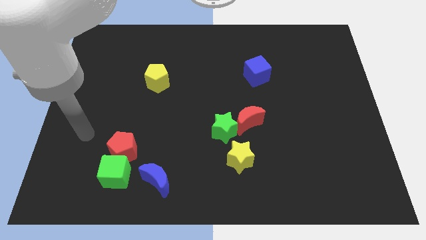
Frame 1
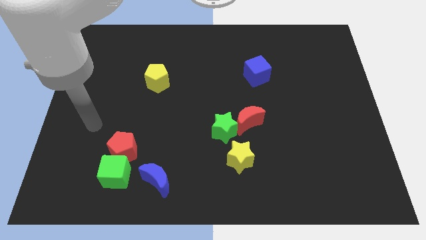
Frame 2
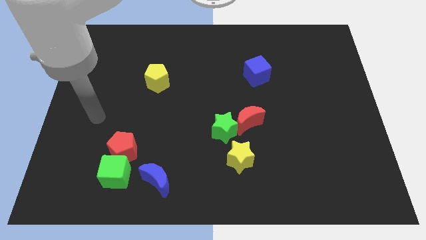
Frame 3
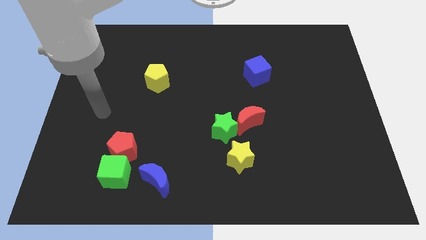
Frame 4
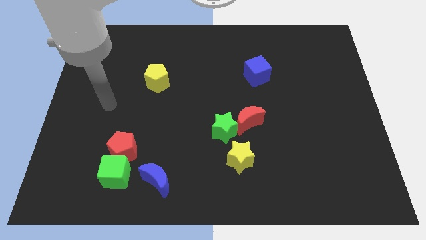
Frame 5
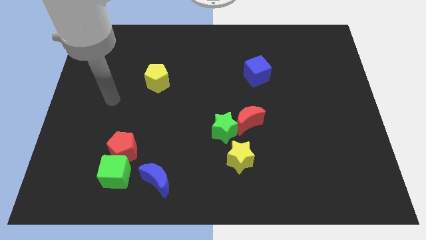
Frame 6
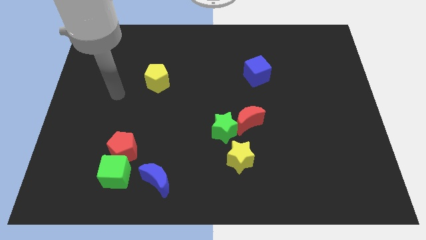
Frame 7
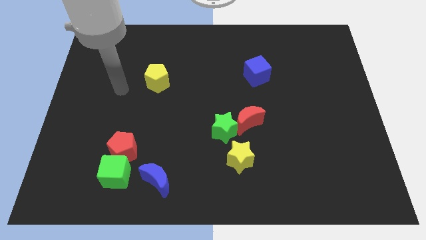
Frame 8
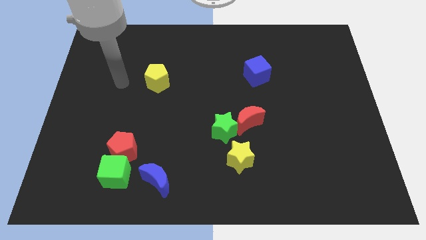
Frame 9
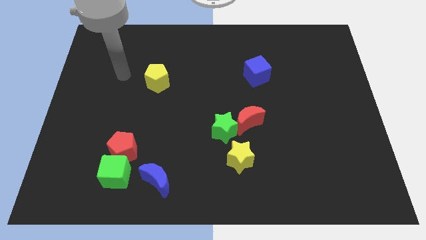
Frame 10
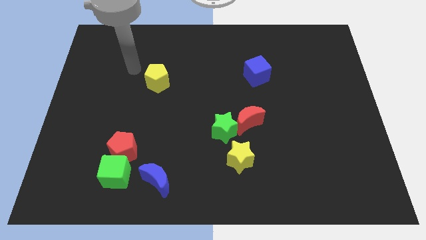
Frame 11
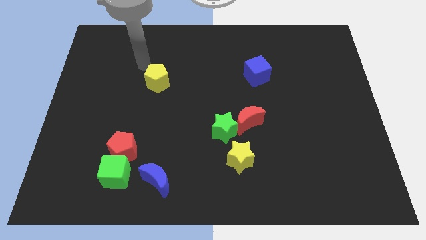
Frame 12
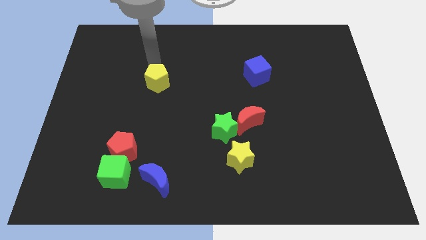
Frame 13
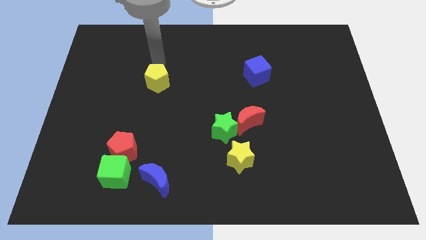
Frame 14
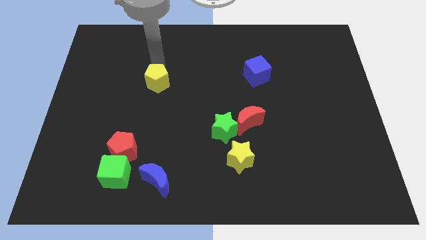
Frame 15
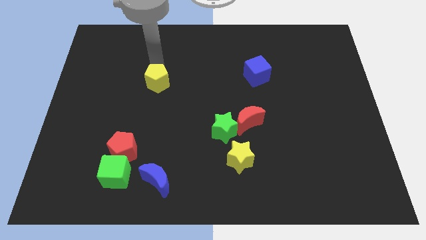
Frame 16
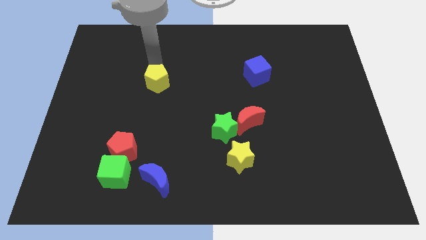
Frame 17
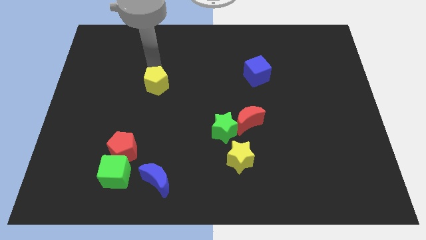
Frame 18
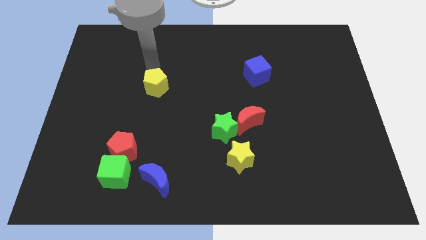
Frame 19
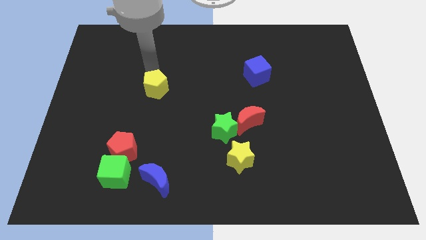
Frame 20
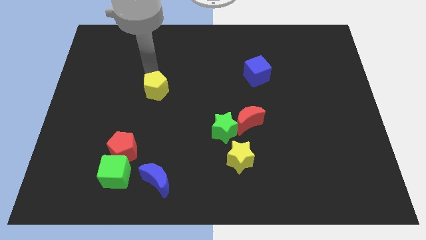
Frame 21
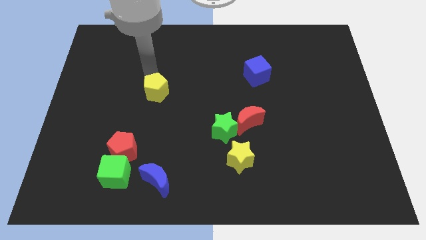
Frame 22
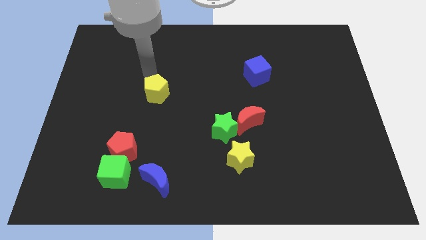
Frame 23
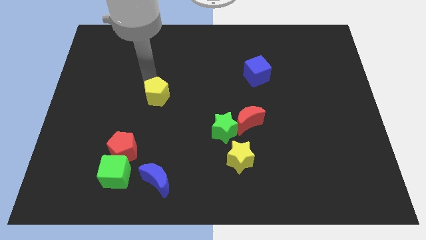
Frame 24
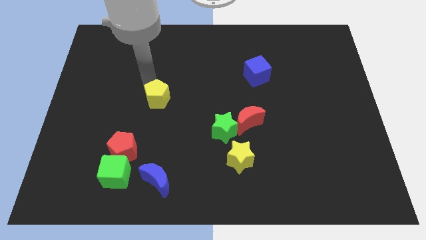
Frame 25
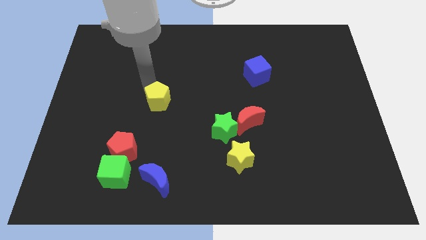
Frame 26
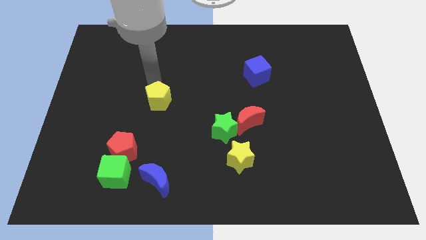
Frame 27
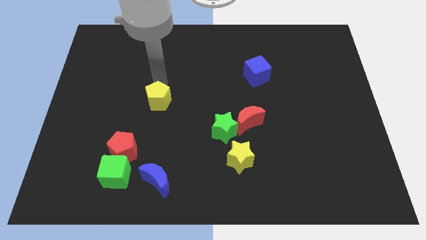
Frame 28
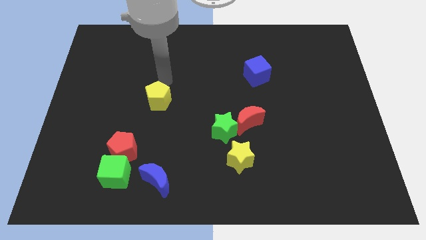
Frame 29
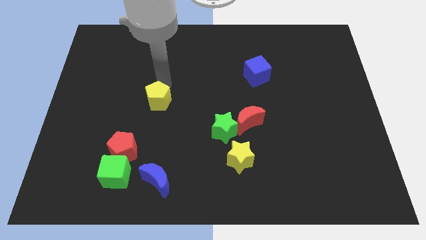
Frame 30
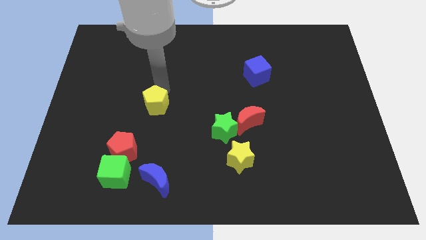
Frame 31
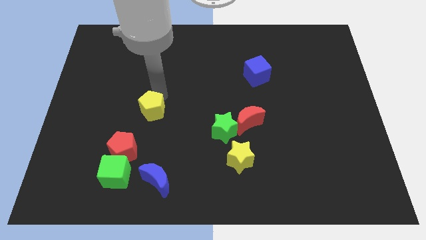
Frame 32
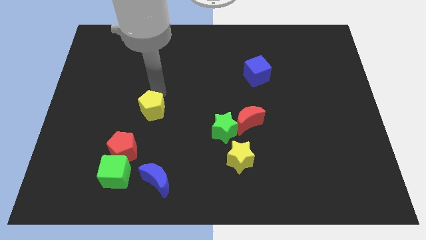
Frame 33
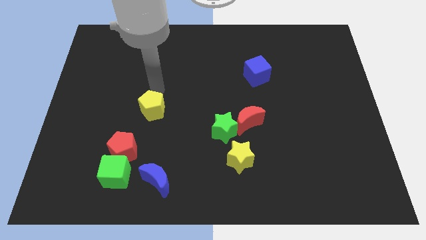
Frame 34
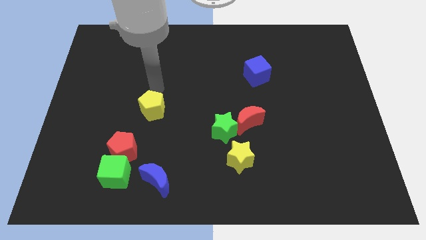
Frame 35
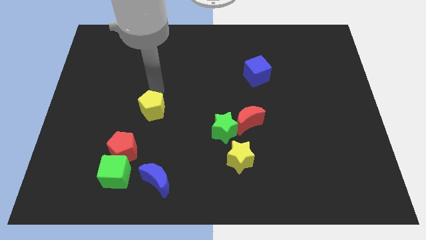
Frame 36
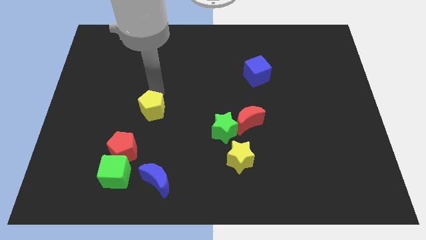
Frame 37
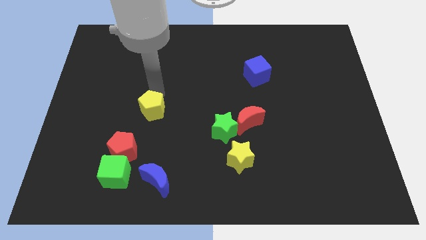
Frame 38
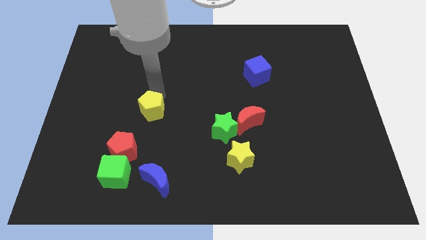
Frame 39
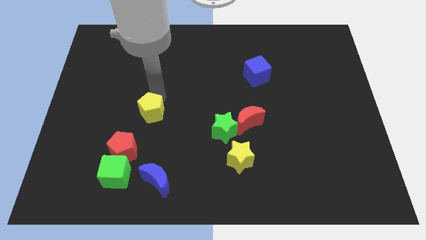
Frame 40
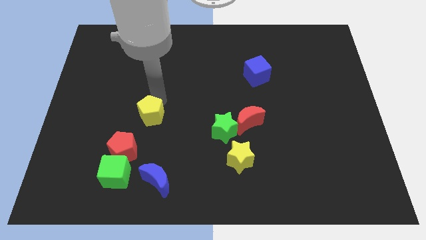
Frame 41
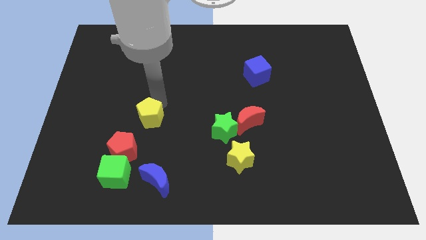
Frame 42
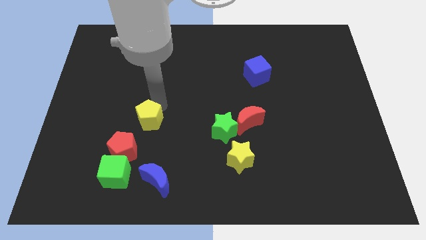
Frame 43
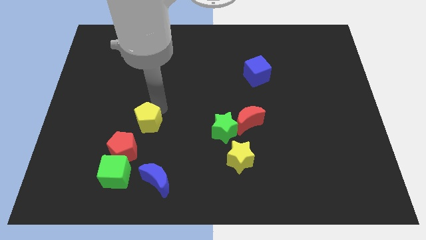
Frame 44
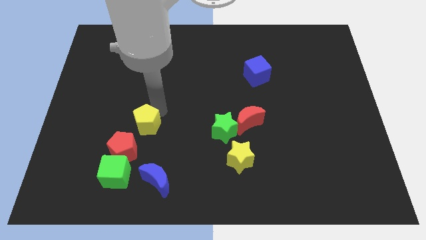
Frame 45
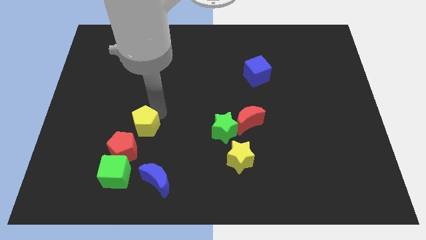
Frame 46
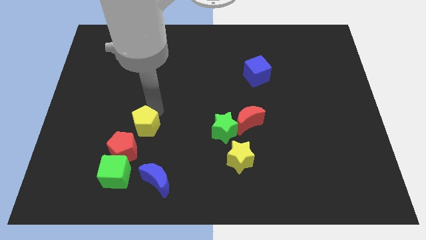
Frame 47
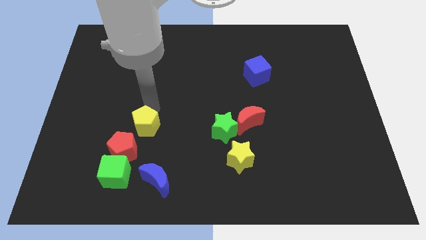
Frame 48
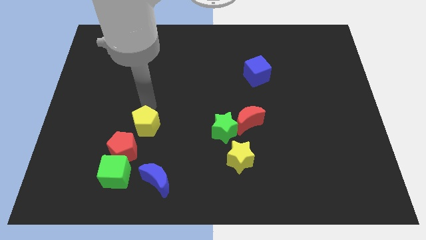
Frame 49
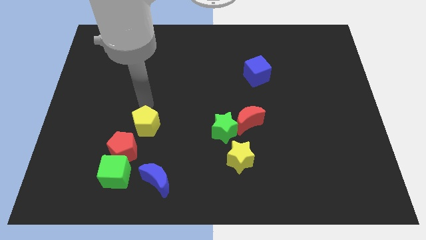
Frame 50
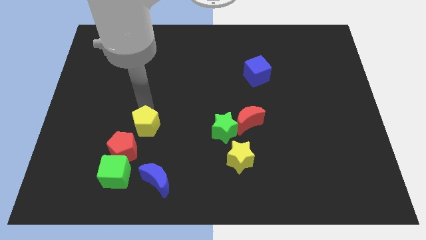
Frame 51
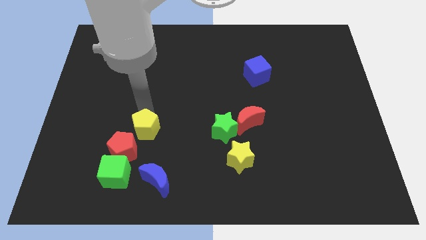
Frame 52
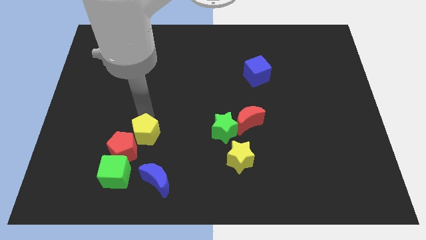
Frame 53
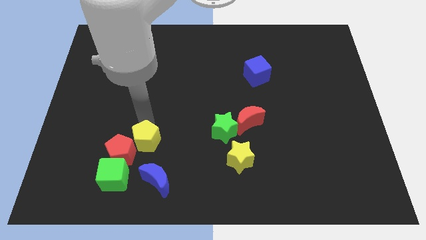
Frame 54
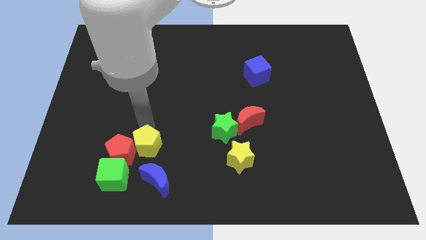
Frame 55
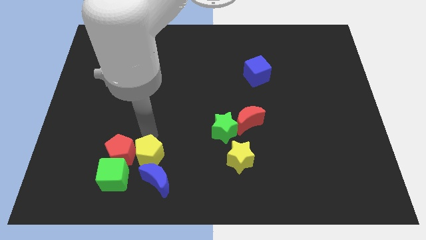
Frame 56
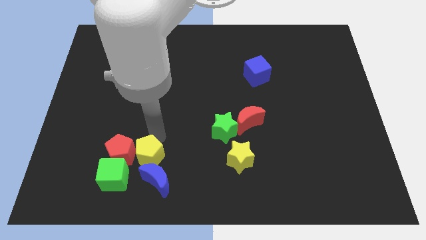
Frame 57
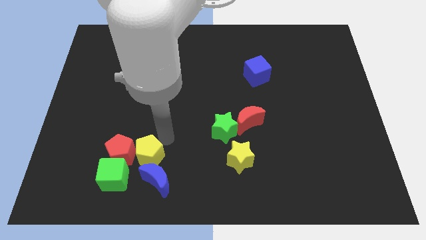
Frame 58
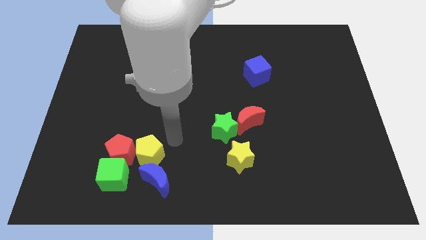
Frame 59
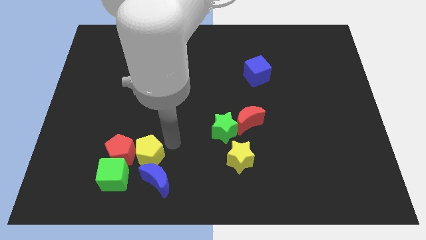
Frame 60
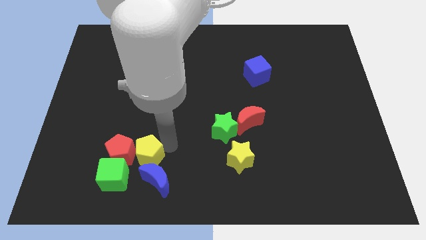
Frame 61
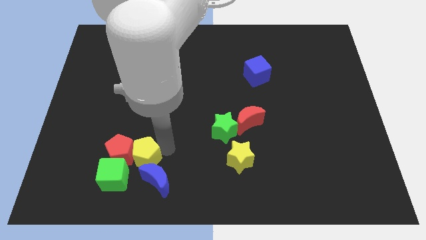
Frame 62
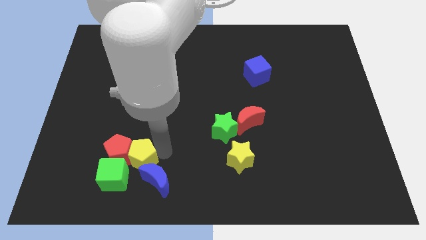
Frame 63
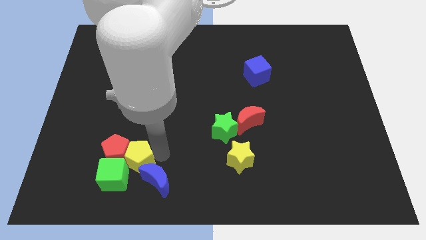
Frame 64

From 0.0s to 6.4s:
move the yellow pentagon next to the green cube

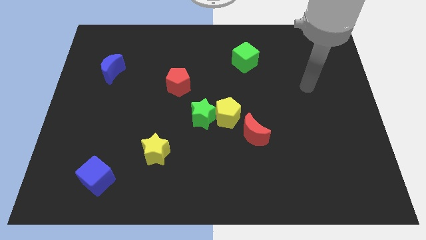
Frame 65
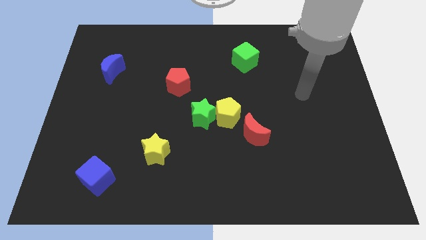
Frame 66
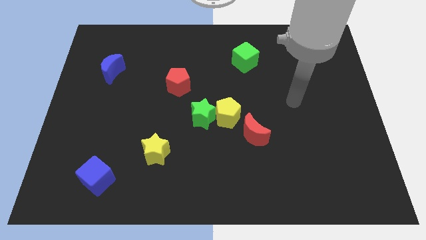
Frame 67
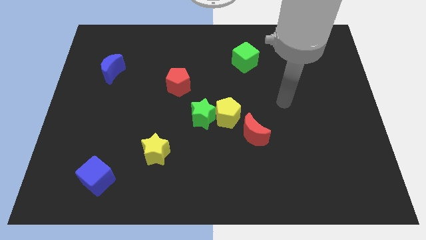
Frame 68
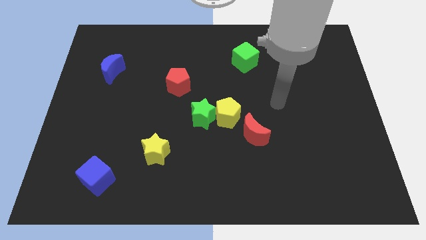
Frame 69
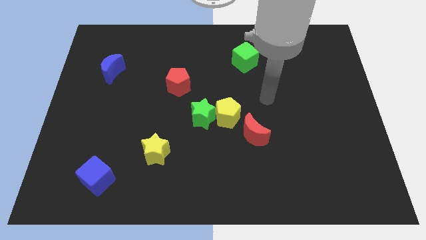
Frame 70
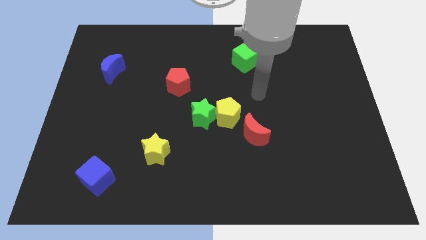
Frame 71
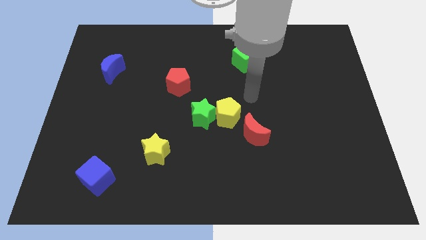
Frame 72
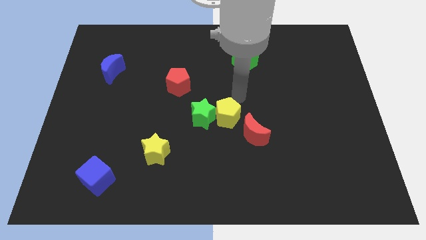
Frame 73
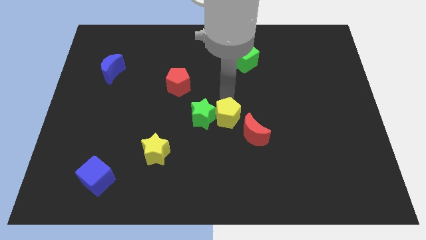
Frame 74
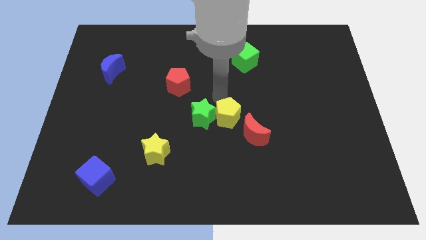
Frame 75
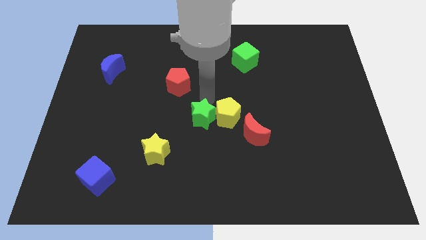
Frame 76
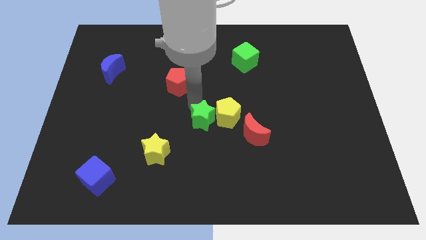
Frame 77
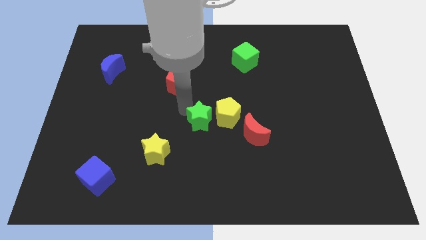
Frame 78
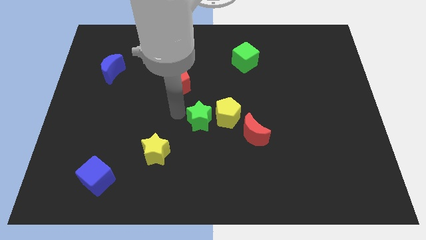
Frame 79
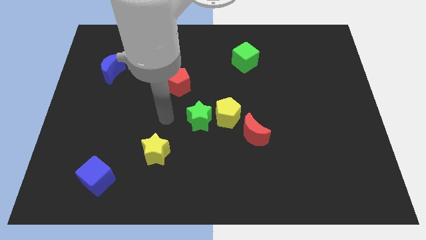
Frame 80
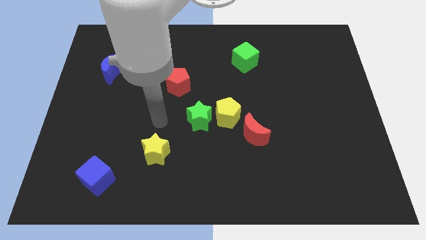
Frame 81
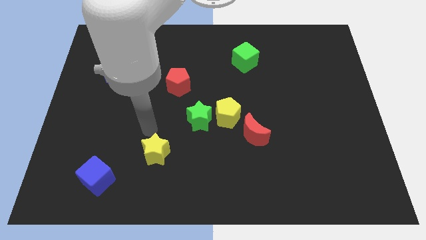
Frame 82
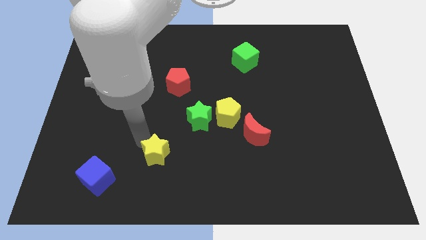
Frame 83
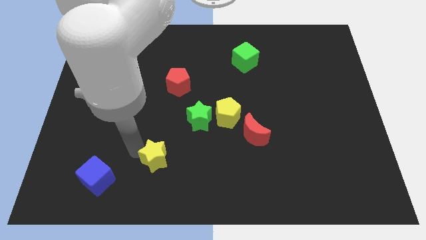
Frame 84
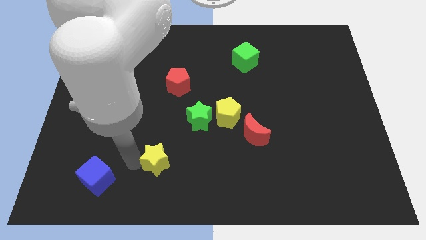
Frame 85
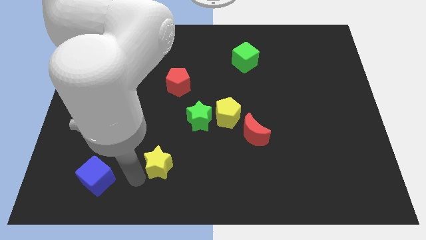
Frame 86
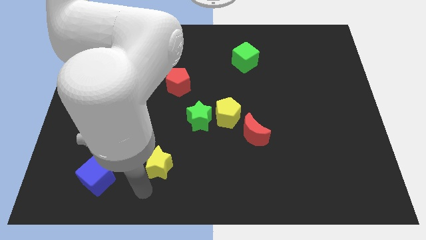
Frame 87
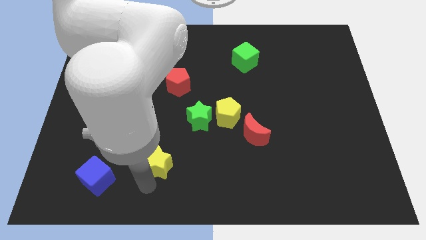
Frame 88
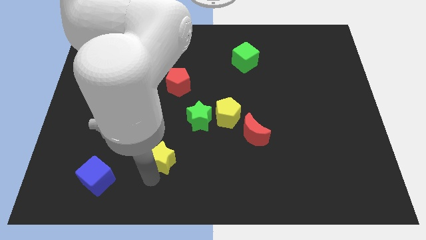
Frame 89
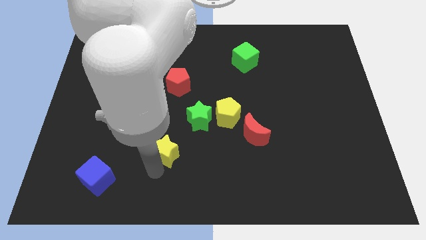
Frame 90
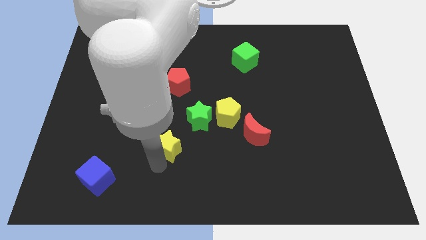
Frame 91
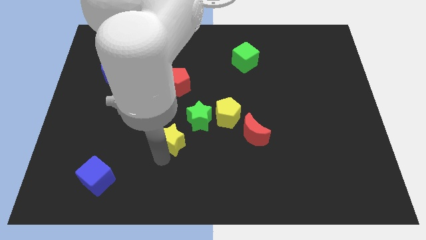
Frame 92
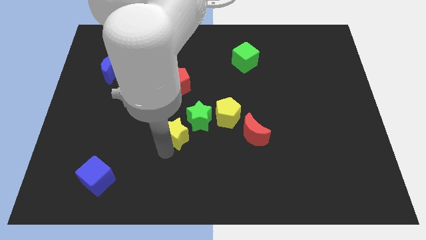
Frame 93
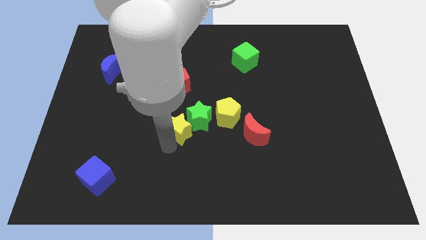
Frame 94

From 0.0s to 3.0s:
slide the yellow star next to the green star
